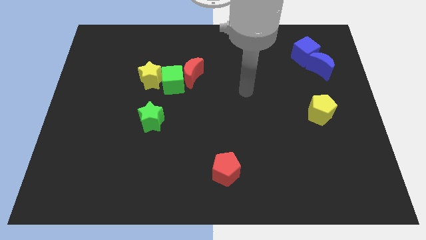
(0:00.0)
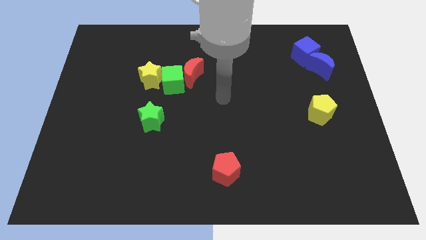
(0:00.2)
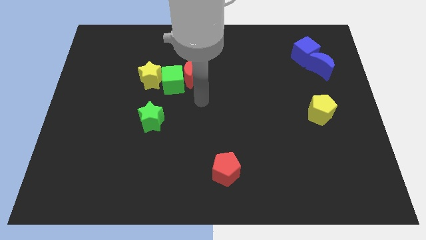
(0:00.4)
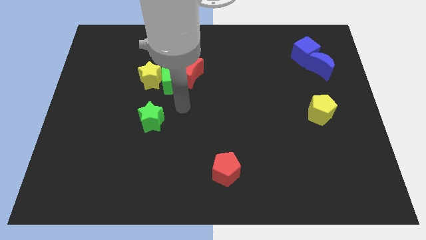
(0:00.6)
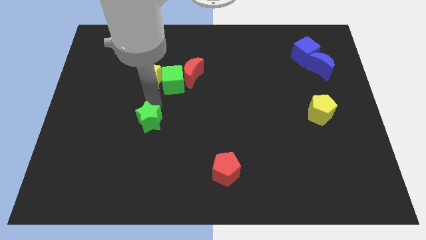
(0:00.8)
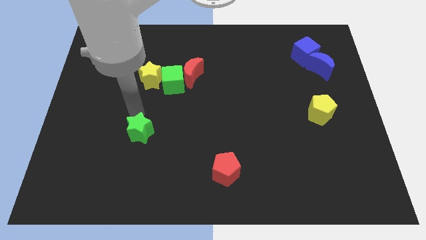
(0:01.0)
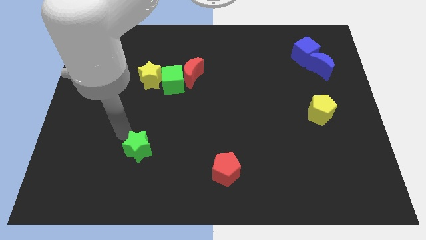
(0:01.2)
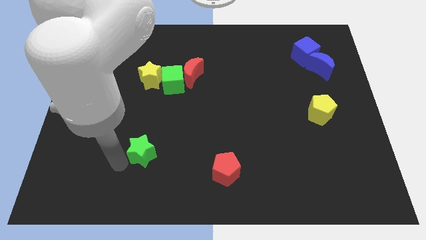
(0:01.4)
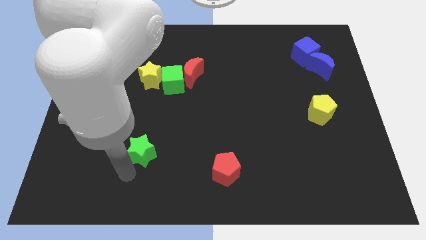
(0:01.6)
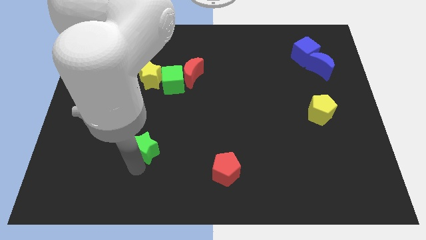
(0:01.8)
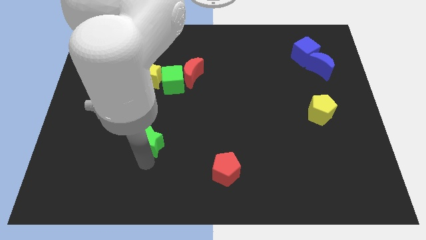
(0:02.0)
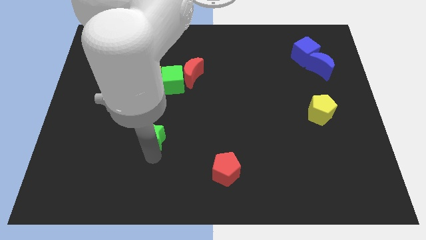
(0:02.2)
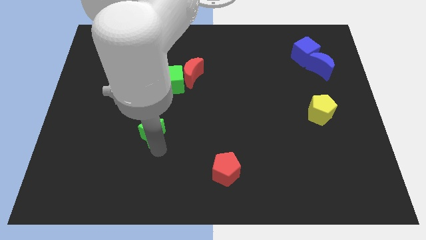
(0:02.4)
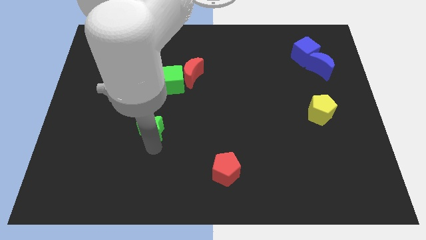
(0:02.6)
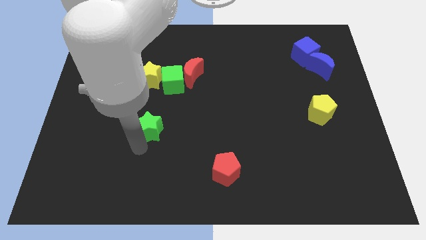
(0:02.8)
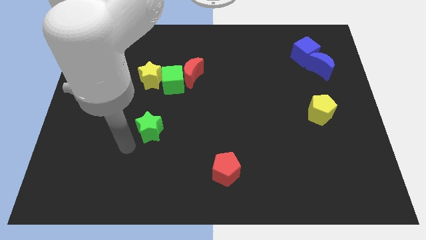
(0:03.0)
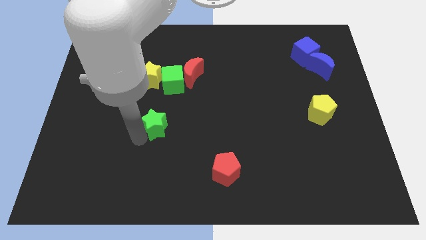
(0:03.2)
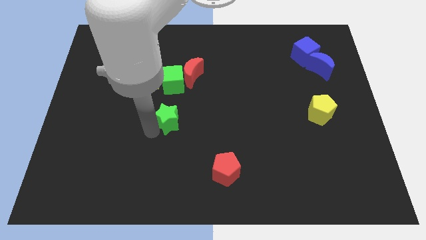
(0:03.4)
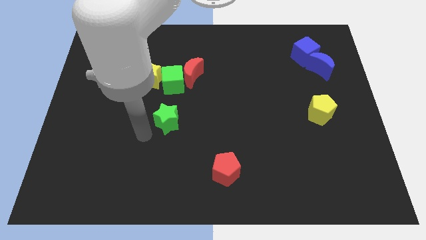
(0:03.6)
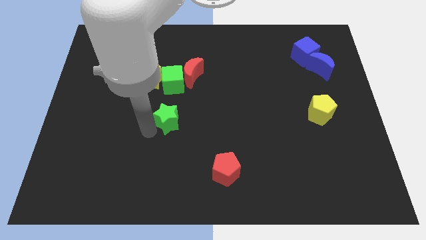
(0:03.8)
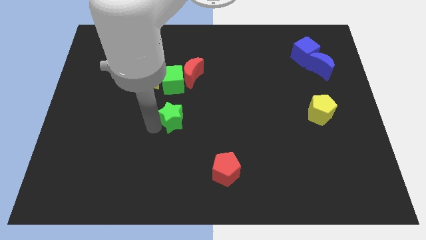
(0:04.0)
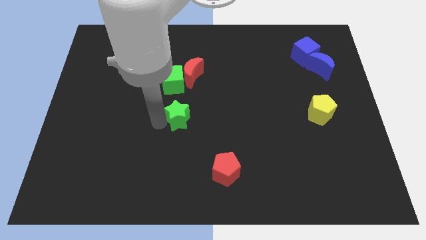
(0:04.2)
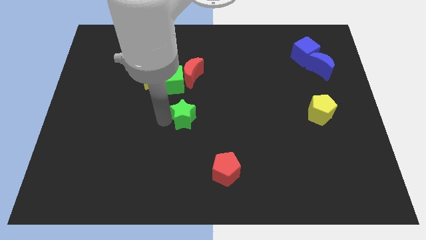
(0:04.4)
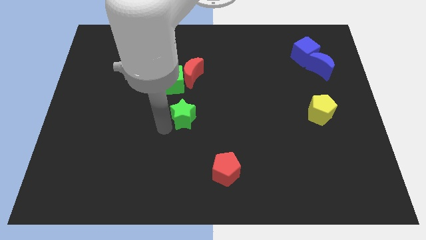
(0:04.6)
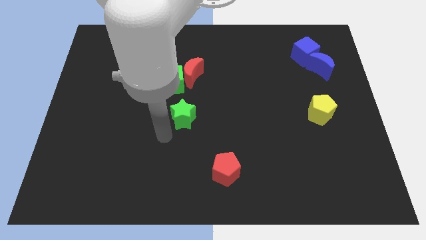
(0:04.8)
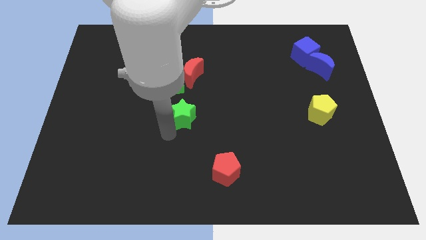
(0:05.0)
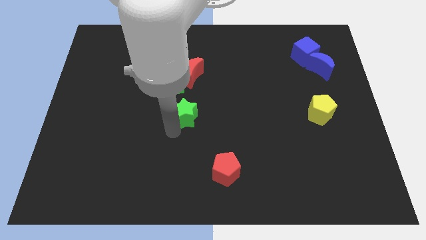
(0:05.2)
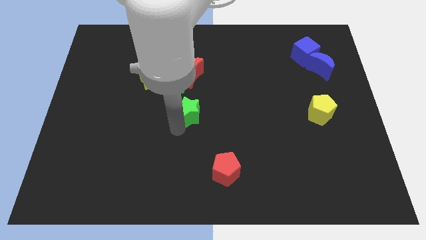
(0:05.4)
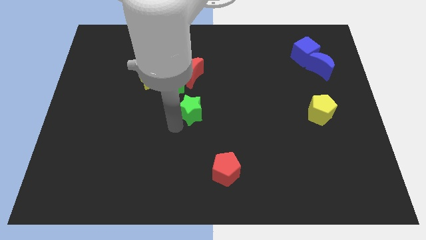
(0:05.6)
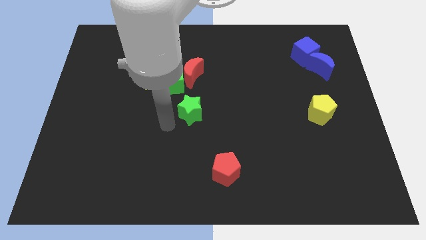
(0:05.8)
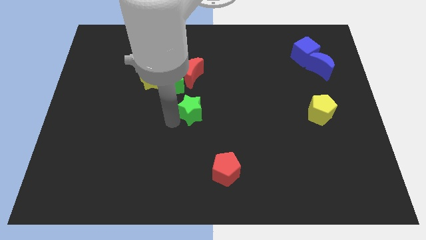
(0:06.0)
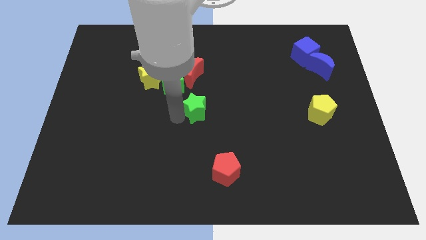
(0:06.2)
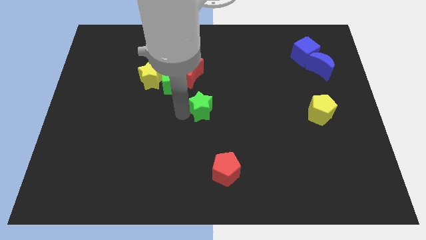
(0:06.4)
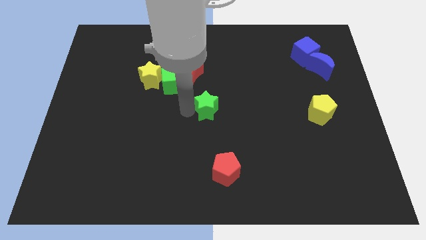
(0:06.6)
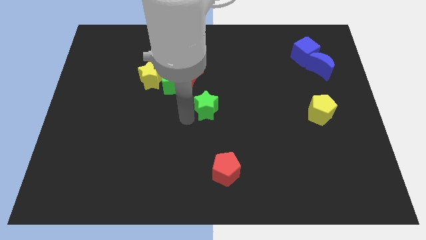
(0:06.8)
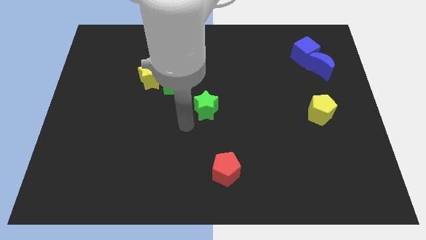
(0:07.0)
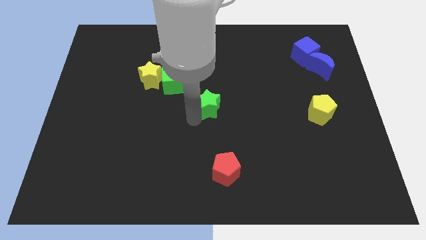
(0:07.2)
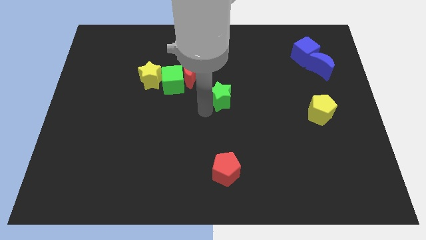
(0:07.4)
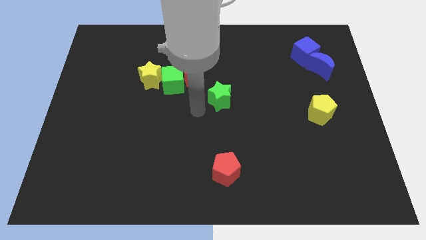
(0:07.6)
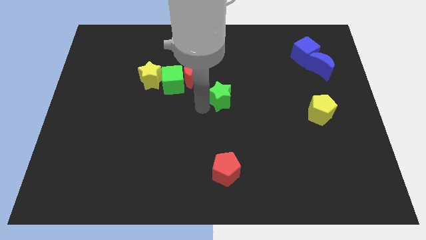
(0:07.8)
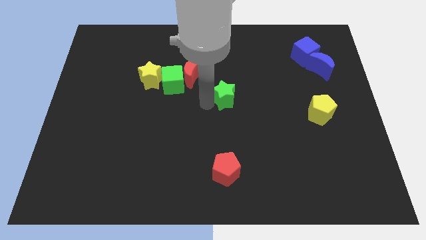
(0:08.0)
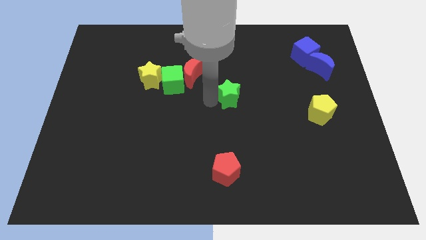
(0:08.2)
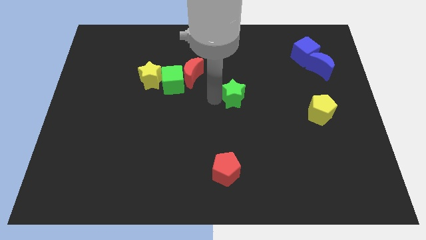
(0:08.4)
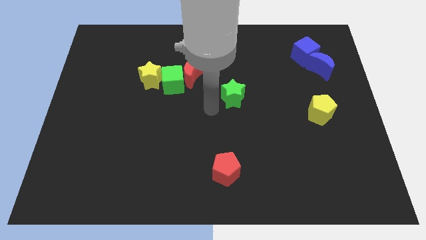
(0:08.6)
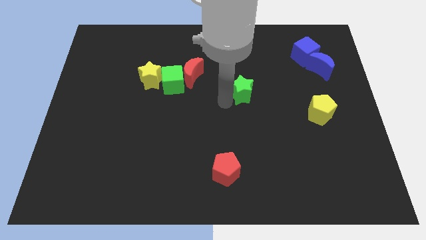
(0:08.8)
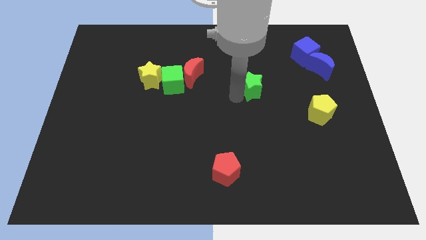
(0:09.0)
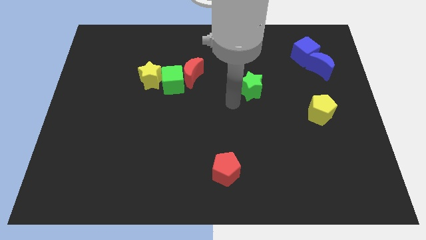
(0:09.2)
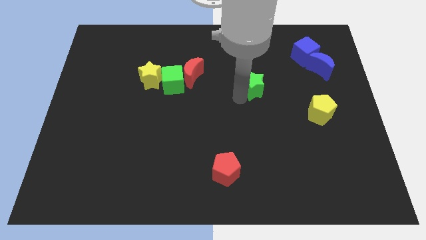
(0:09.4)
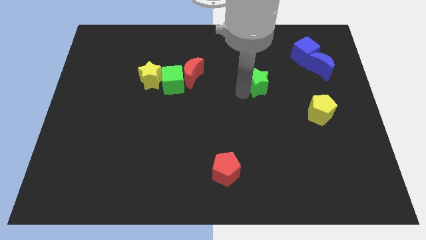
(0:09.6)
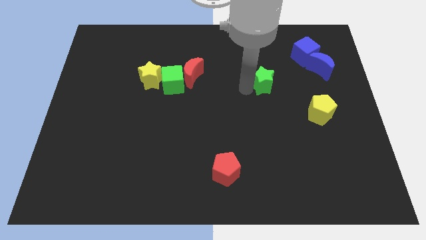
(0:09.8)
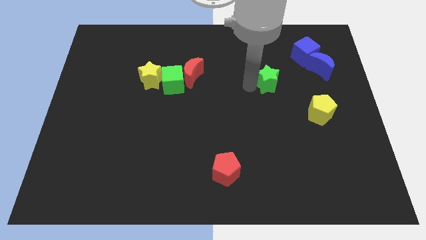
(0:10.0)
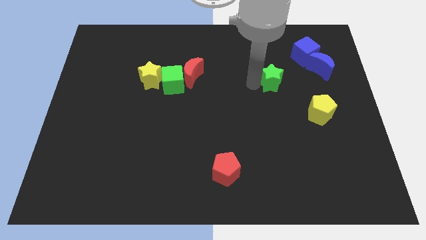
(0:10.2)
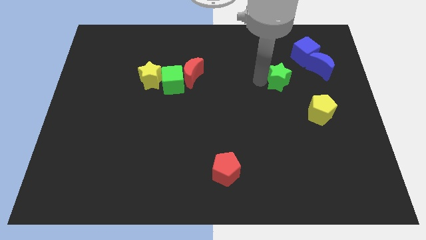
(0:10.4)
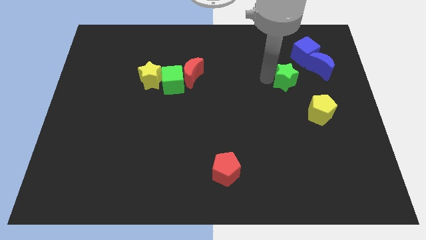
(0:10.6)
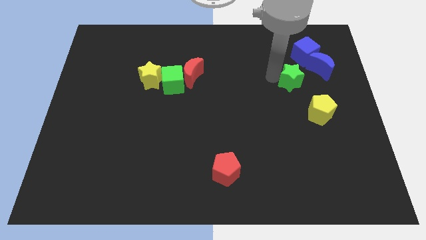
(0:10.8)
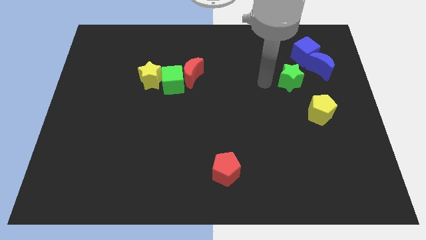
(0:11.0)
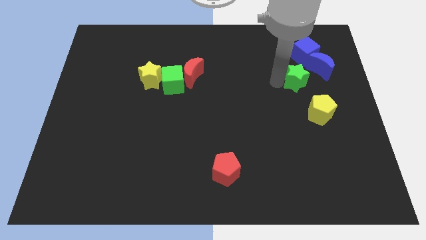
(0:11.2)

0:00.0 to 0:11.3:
slide the green star to the top of the yellow pentagon

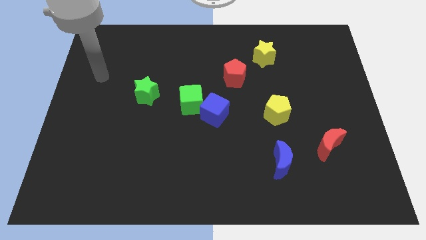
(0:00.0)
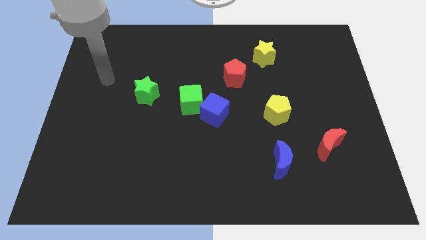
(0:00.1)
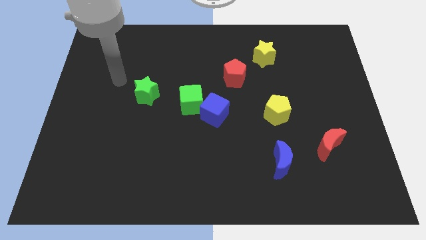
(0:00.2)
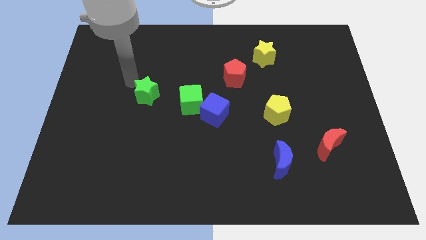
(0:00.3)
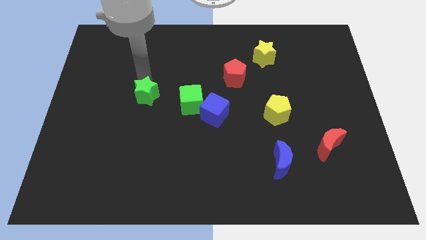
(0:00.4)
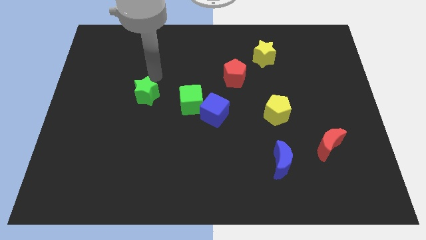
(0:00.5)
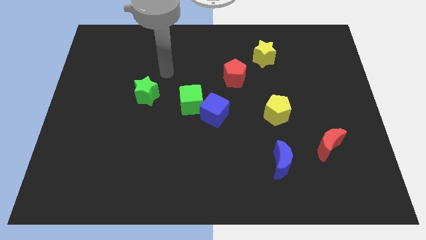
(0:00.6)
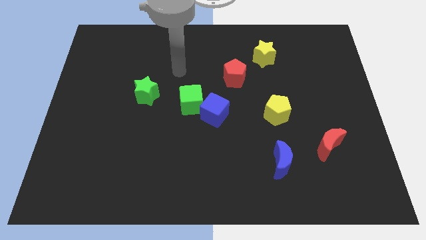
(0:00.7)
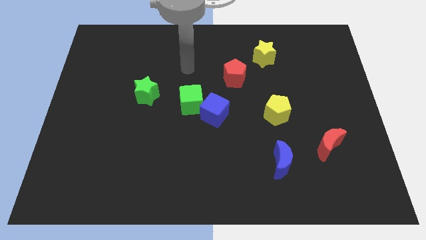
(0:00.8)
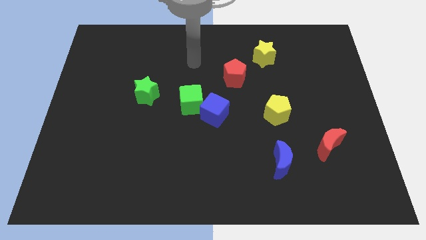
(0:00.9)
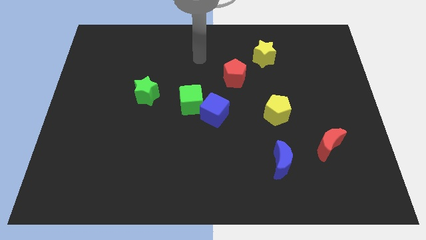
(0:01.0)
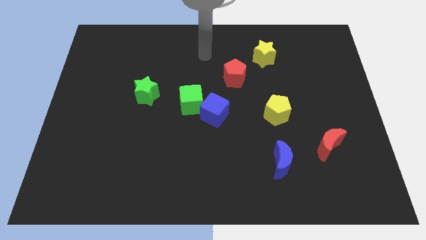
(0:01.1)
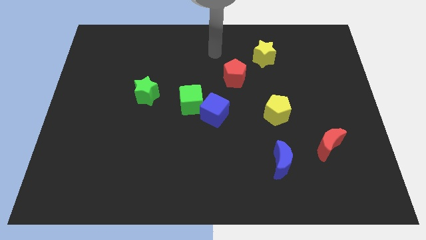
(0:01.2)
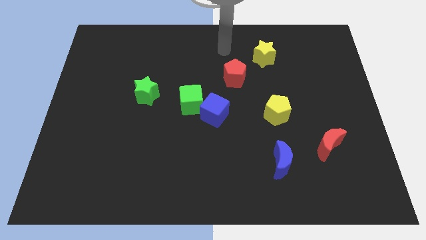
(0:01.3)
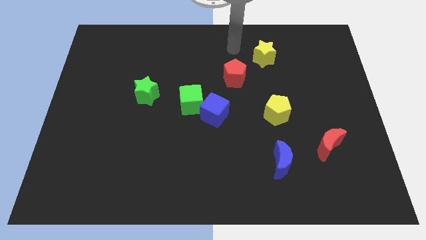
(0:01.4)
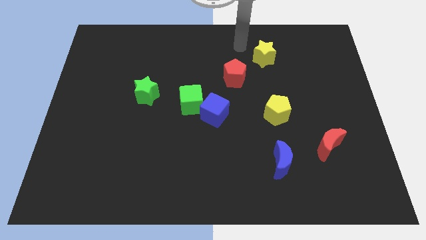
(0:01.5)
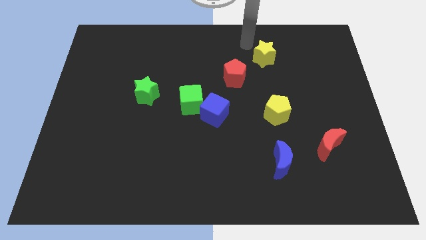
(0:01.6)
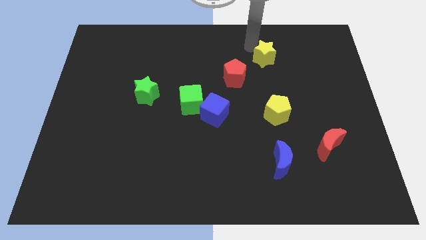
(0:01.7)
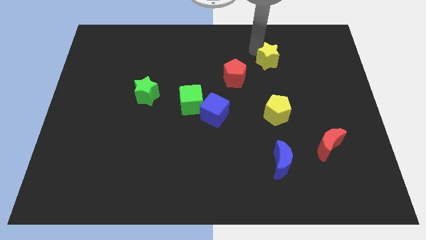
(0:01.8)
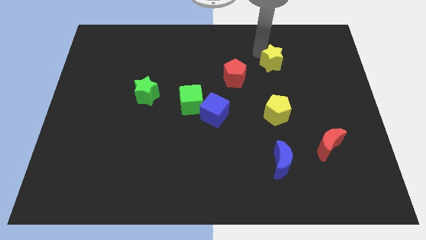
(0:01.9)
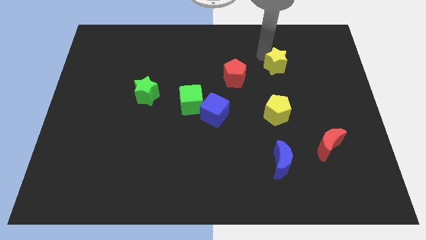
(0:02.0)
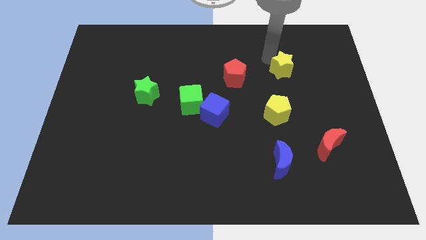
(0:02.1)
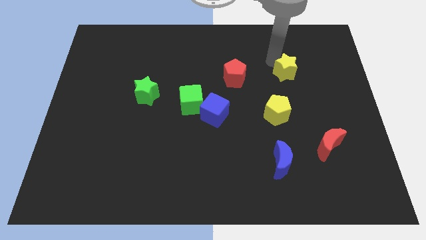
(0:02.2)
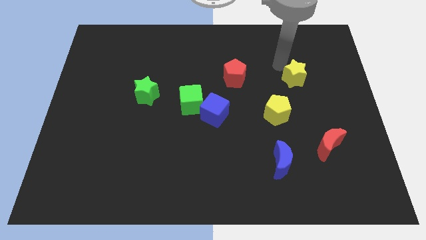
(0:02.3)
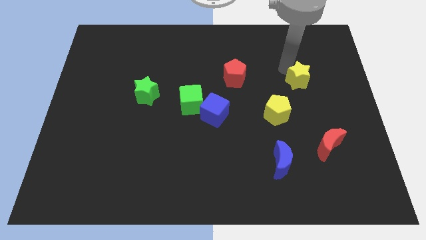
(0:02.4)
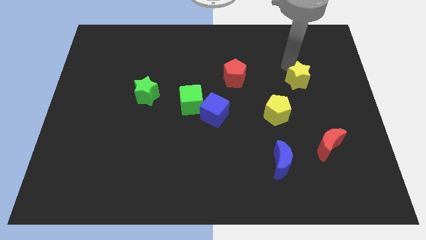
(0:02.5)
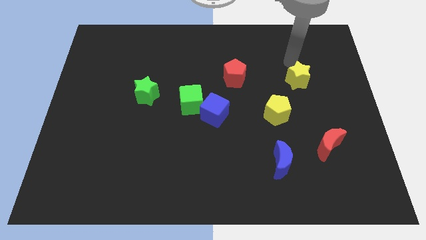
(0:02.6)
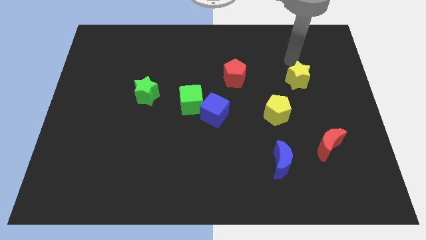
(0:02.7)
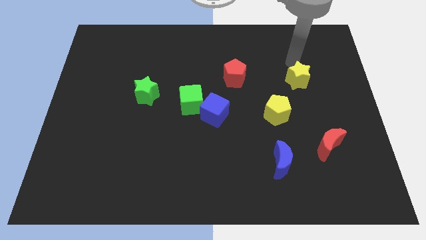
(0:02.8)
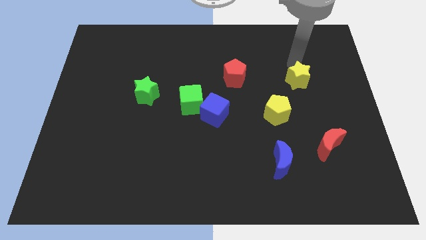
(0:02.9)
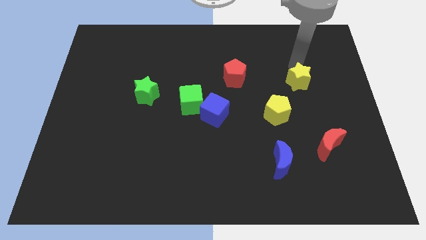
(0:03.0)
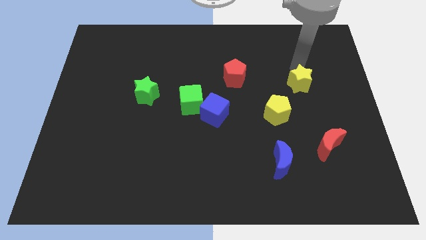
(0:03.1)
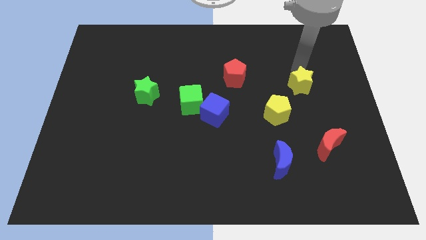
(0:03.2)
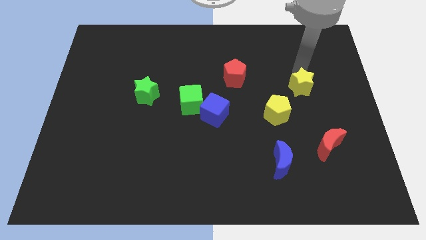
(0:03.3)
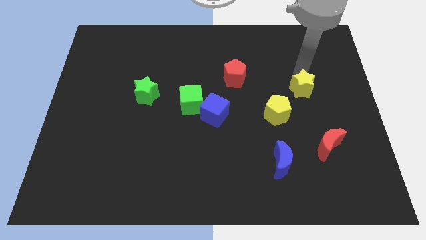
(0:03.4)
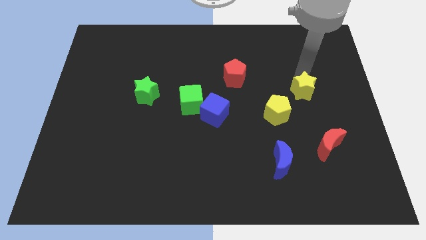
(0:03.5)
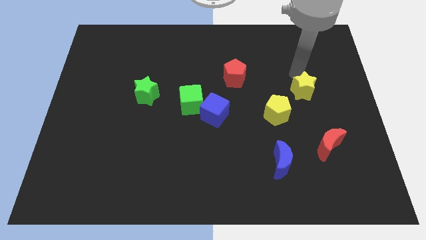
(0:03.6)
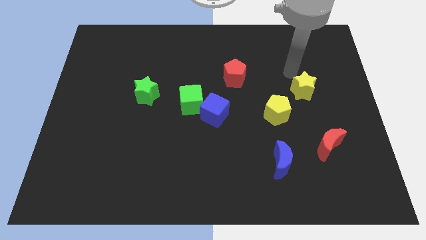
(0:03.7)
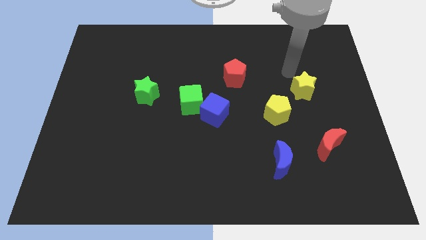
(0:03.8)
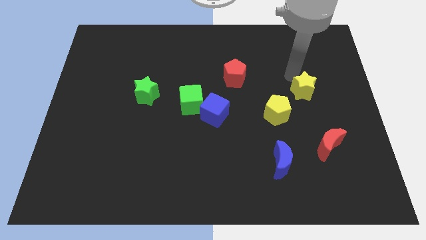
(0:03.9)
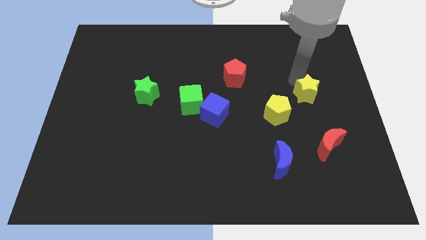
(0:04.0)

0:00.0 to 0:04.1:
put the yellow star to the top of the red moon
